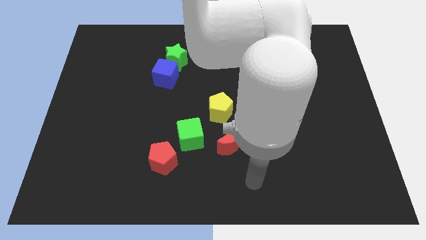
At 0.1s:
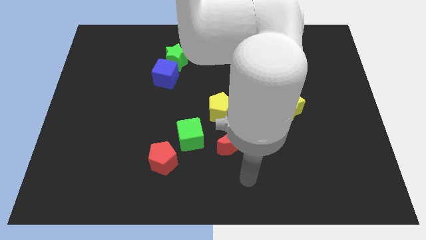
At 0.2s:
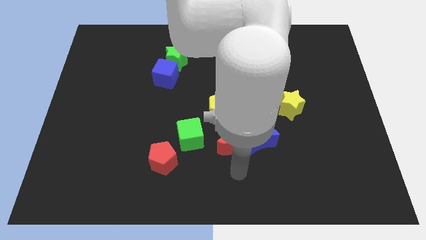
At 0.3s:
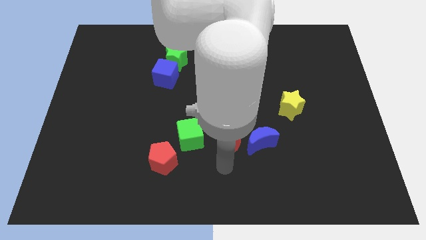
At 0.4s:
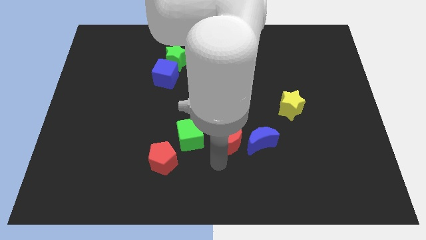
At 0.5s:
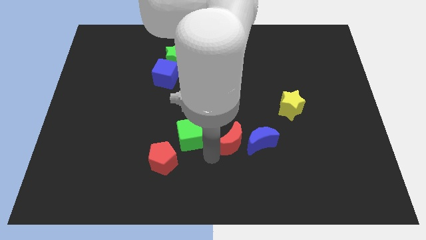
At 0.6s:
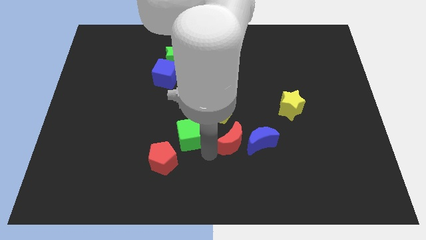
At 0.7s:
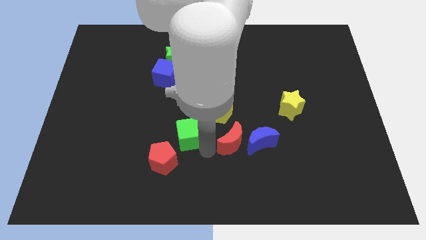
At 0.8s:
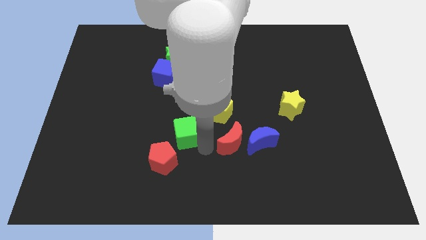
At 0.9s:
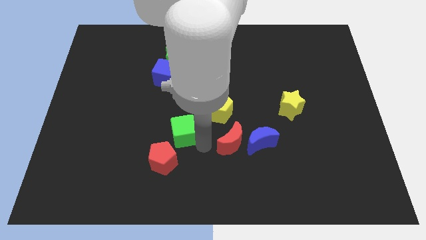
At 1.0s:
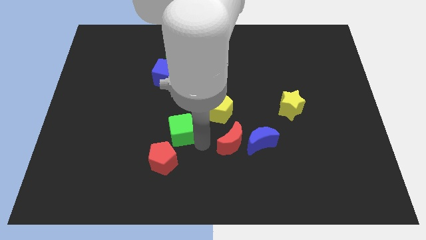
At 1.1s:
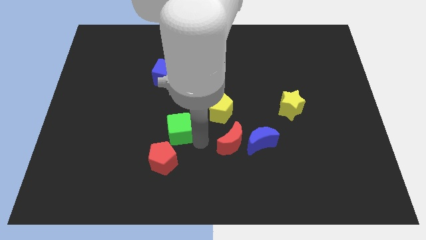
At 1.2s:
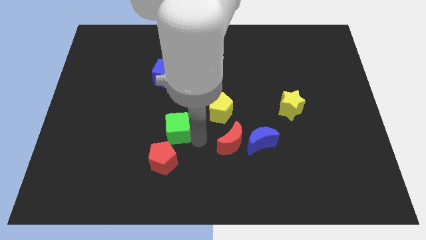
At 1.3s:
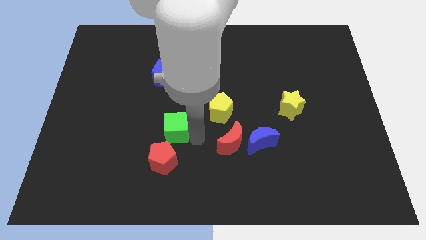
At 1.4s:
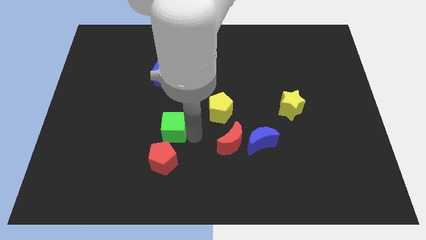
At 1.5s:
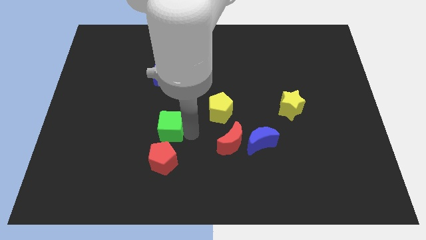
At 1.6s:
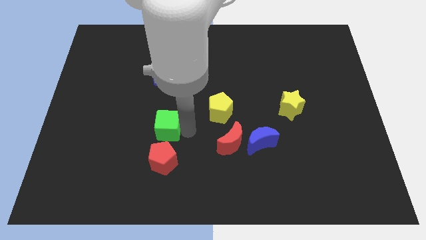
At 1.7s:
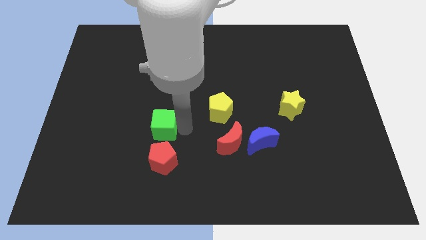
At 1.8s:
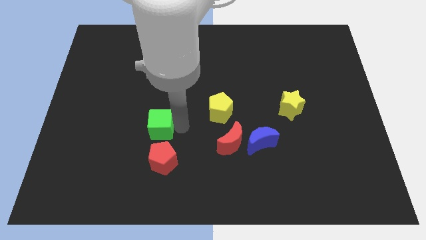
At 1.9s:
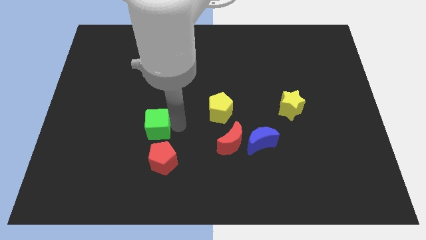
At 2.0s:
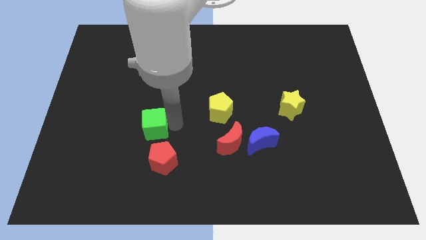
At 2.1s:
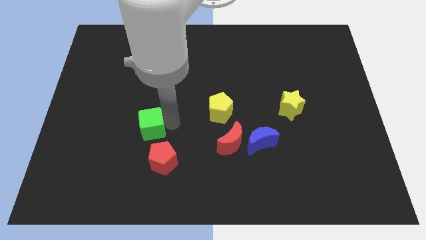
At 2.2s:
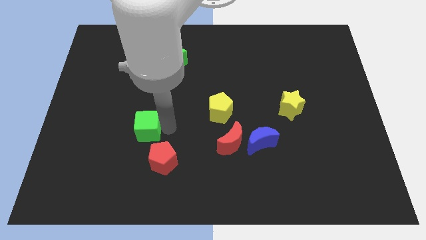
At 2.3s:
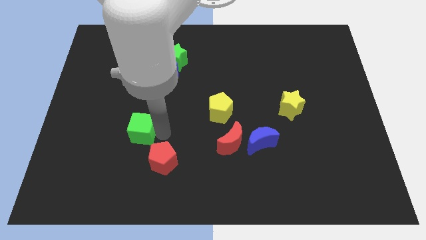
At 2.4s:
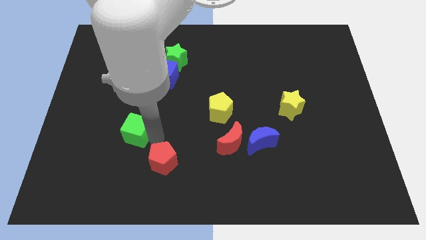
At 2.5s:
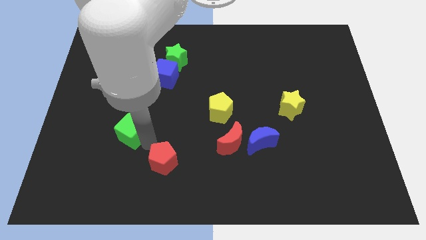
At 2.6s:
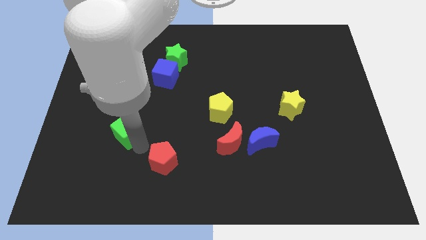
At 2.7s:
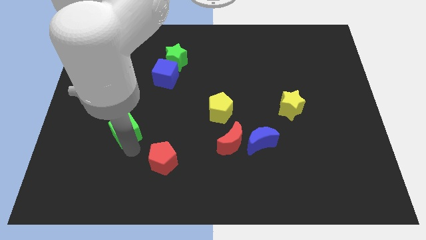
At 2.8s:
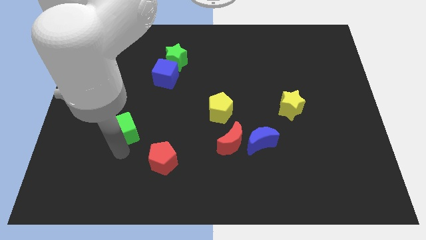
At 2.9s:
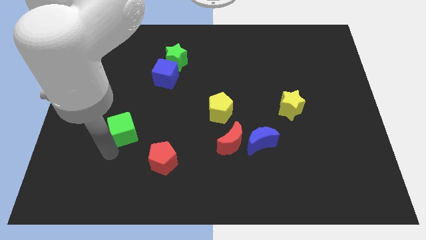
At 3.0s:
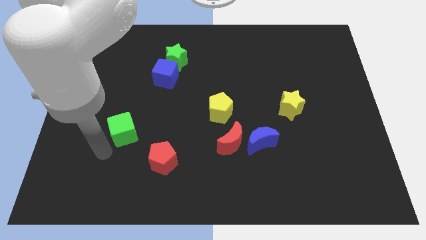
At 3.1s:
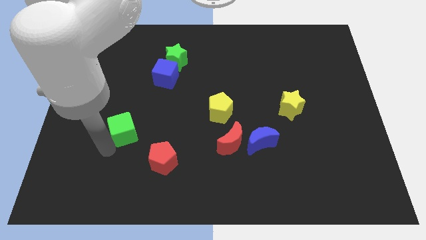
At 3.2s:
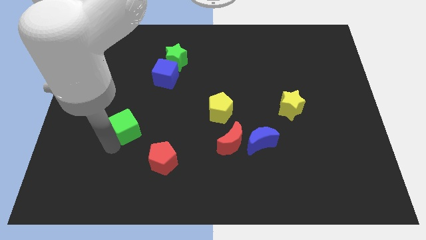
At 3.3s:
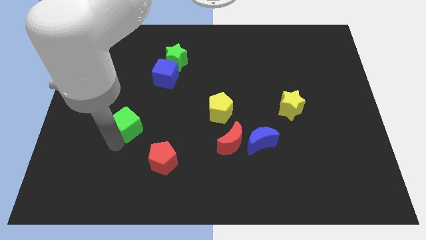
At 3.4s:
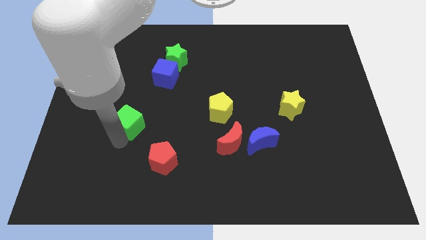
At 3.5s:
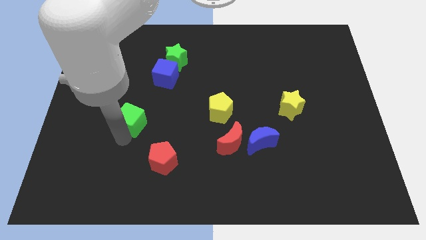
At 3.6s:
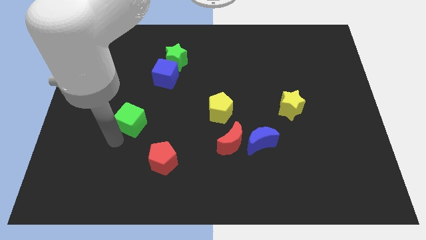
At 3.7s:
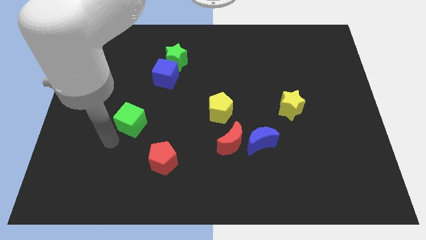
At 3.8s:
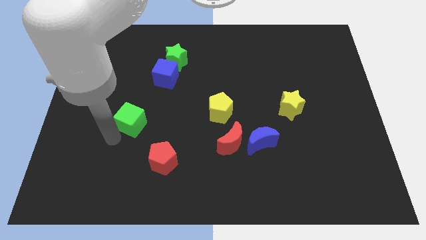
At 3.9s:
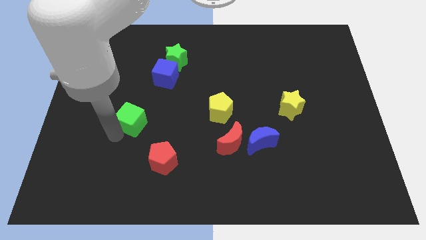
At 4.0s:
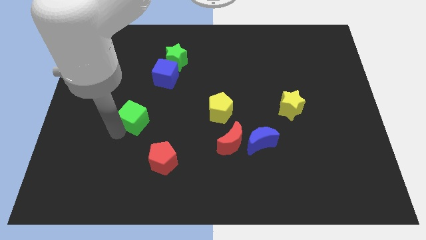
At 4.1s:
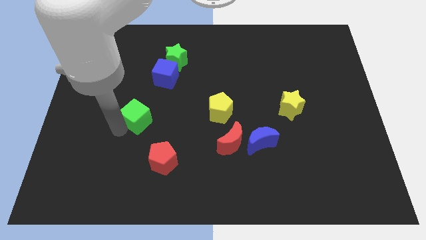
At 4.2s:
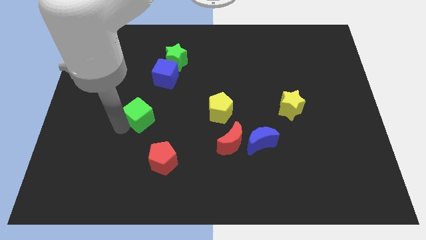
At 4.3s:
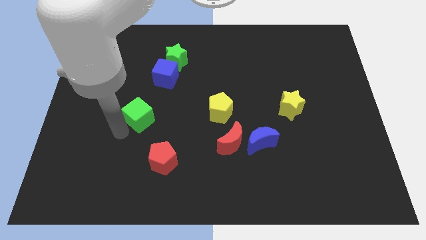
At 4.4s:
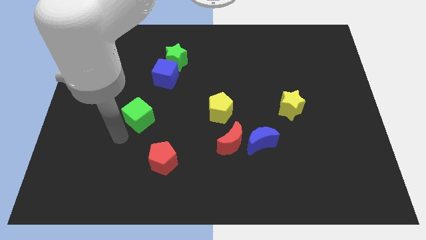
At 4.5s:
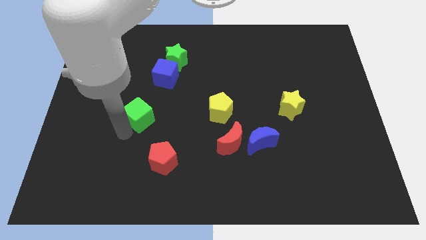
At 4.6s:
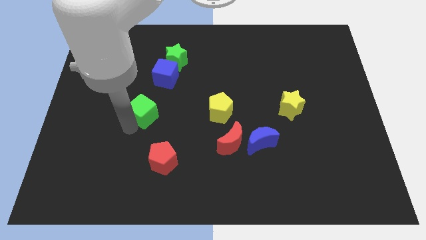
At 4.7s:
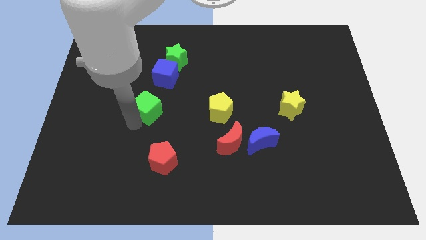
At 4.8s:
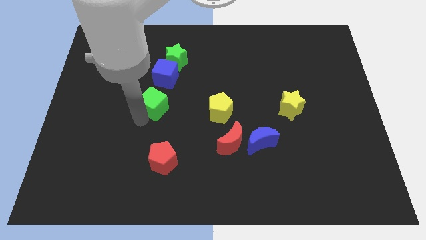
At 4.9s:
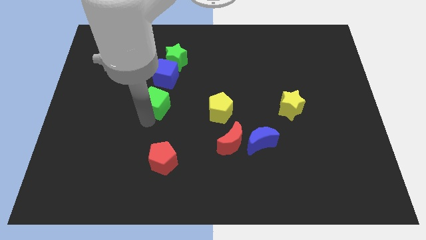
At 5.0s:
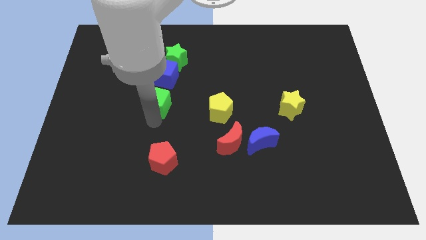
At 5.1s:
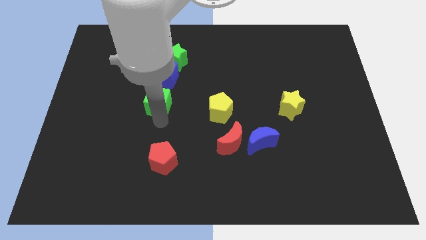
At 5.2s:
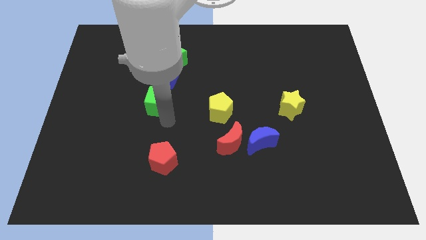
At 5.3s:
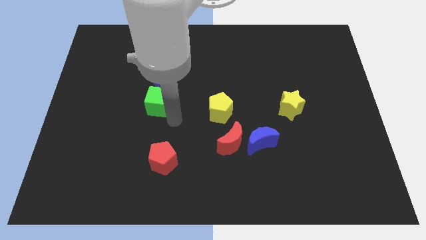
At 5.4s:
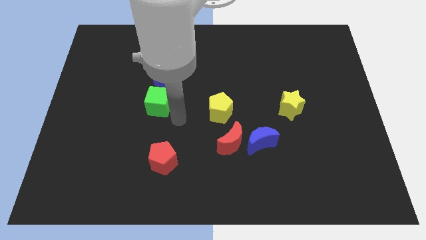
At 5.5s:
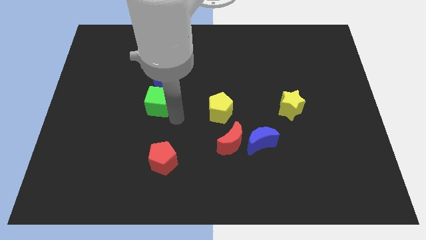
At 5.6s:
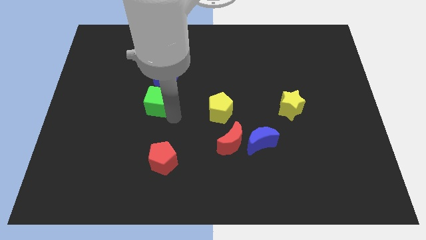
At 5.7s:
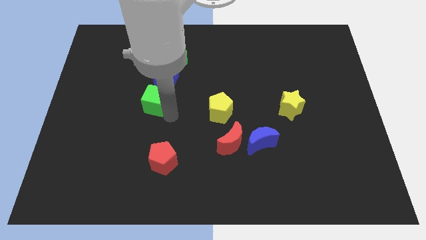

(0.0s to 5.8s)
push the green cube to the bottom left of the blue cube

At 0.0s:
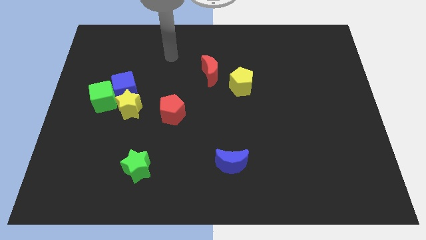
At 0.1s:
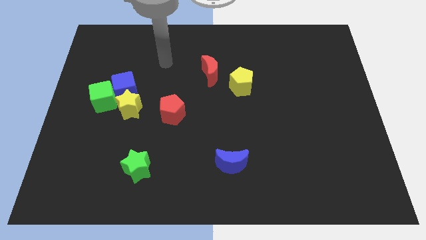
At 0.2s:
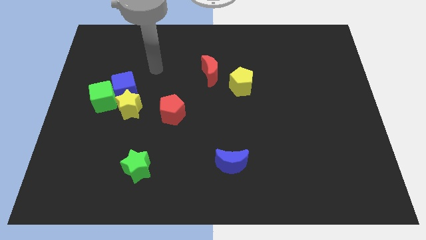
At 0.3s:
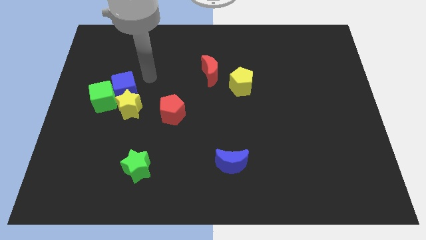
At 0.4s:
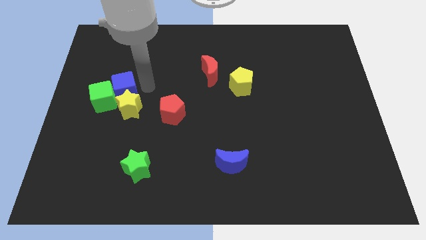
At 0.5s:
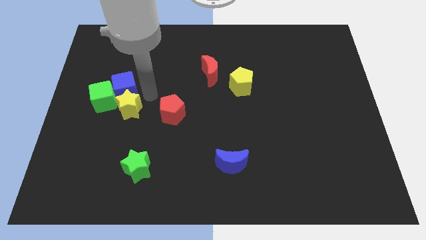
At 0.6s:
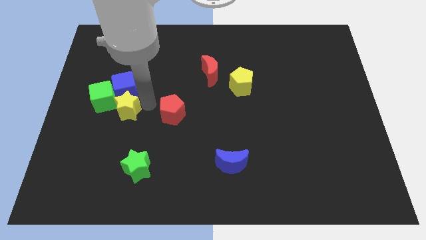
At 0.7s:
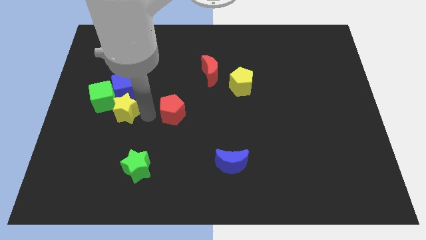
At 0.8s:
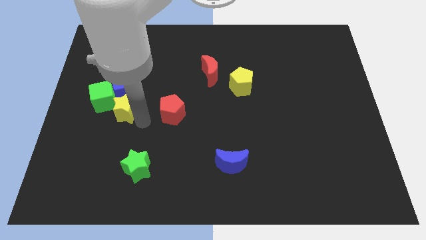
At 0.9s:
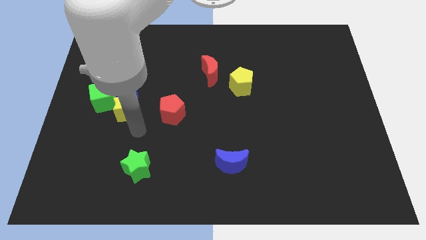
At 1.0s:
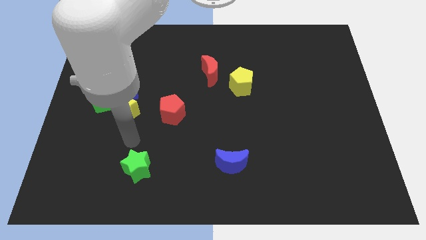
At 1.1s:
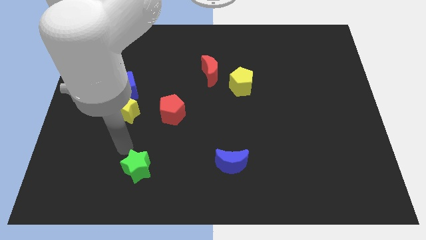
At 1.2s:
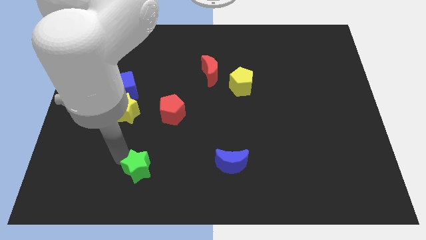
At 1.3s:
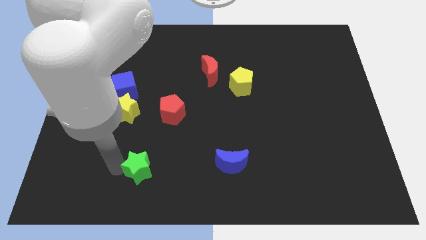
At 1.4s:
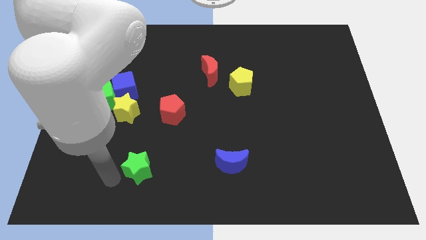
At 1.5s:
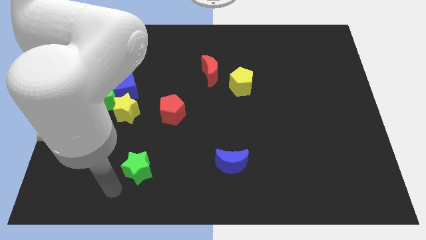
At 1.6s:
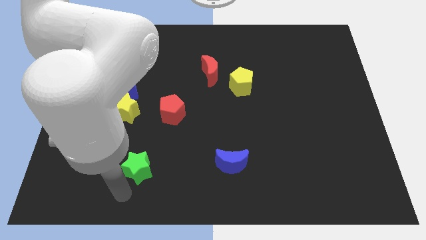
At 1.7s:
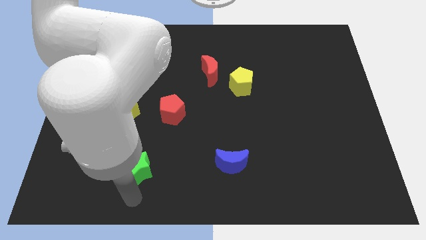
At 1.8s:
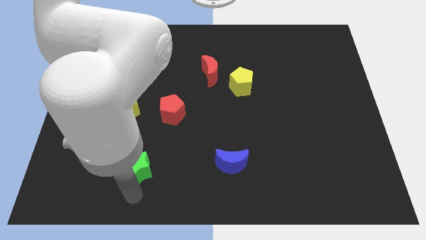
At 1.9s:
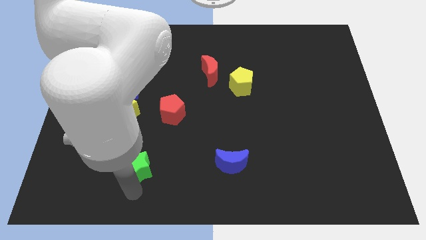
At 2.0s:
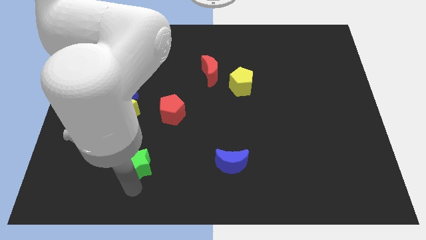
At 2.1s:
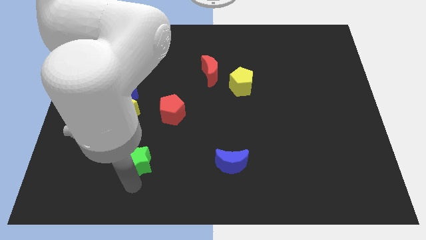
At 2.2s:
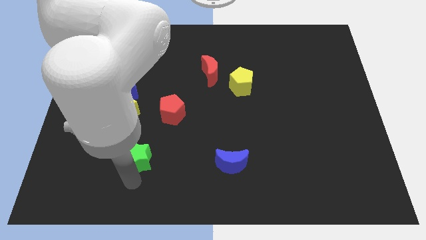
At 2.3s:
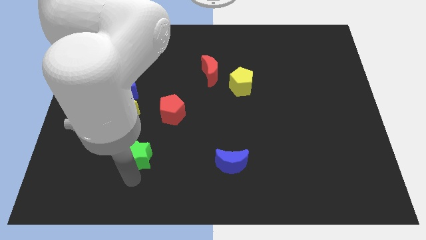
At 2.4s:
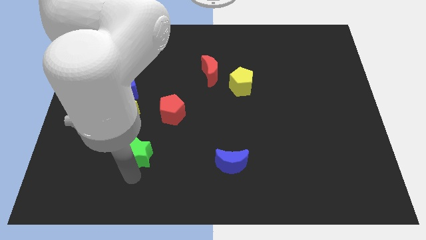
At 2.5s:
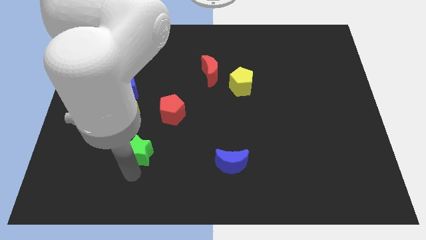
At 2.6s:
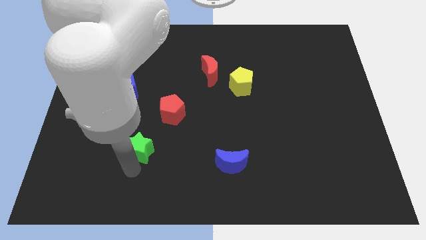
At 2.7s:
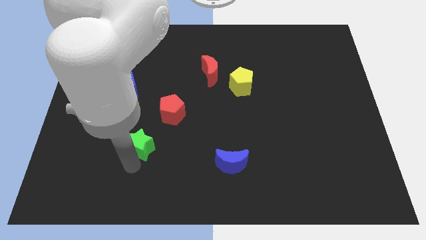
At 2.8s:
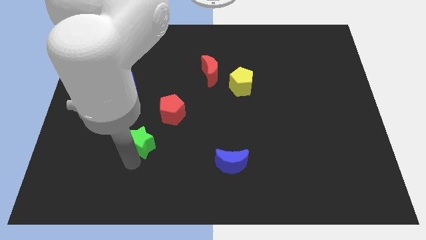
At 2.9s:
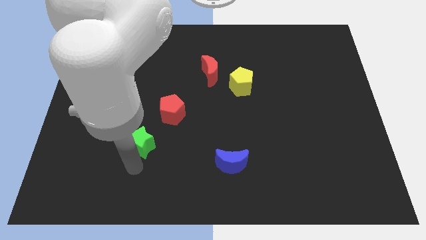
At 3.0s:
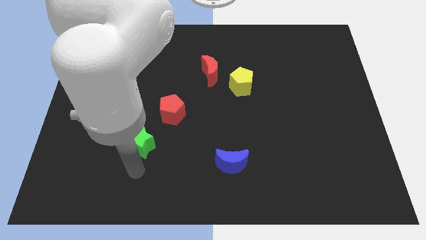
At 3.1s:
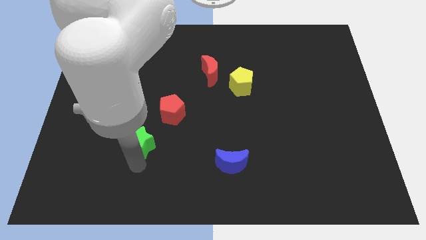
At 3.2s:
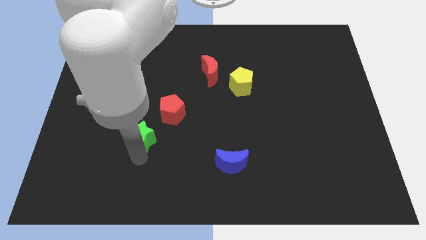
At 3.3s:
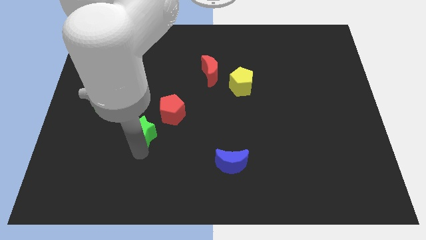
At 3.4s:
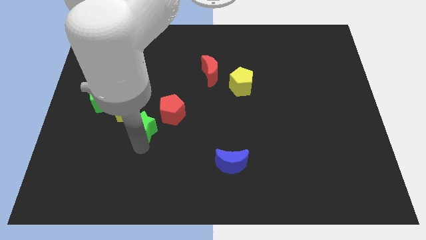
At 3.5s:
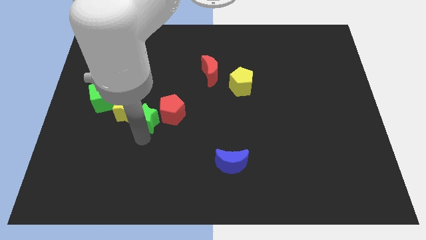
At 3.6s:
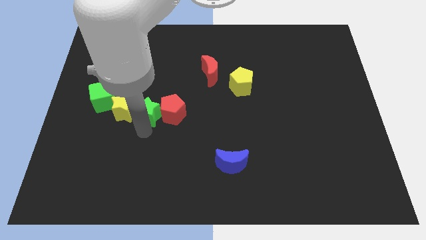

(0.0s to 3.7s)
put the green star to the top left of the red pentagon
